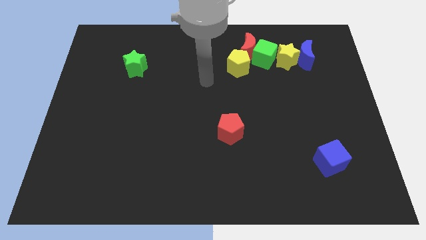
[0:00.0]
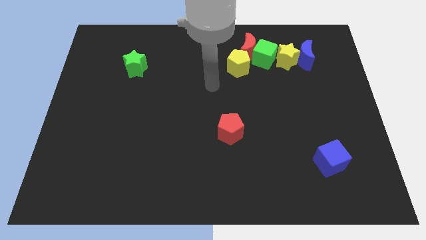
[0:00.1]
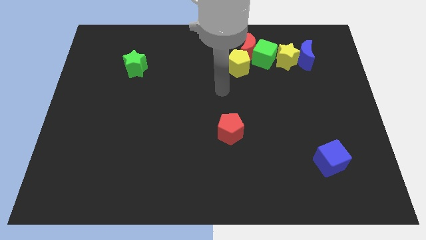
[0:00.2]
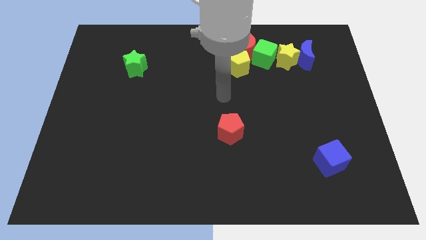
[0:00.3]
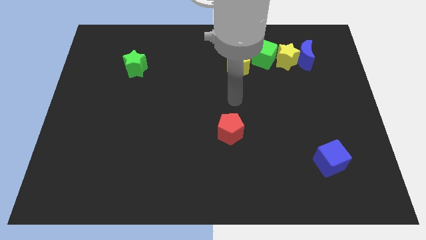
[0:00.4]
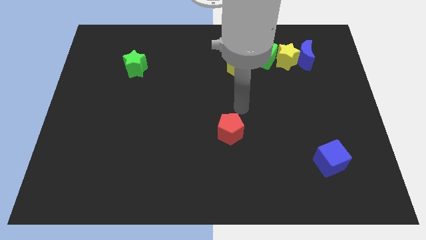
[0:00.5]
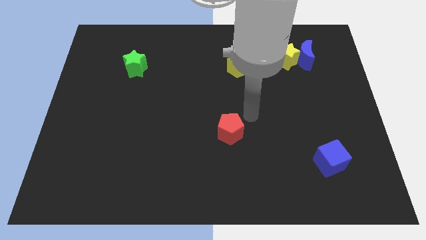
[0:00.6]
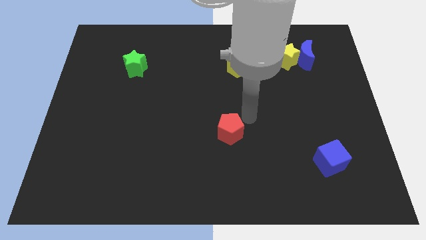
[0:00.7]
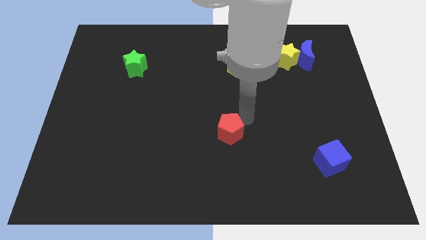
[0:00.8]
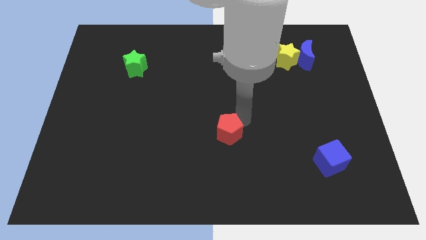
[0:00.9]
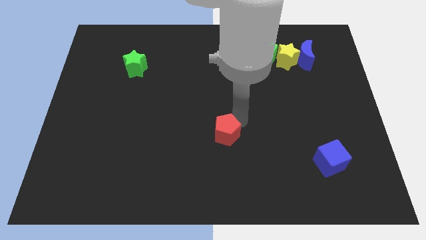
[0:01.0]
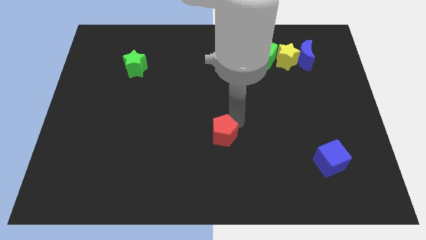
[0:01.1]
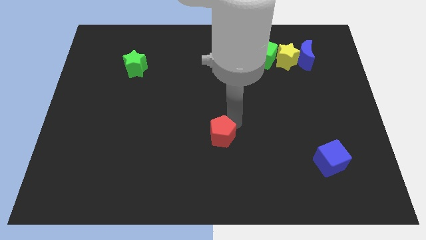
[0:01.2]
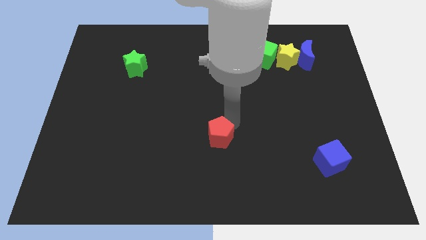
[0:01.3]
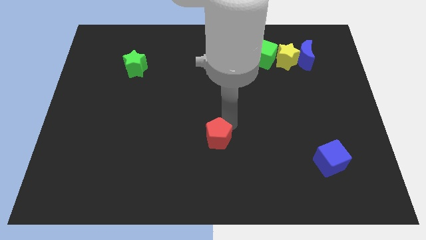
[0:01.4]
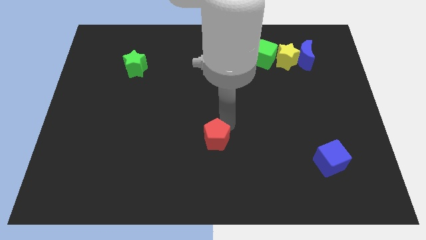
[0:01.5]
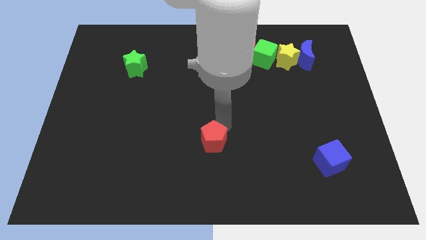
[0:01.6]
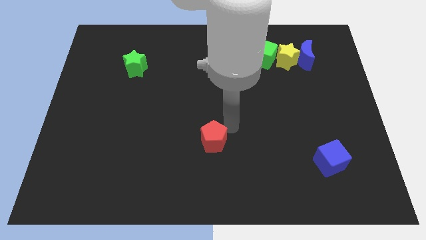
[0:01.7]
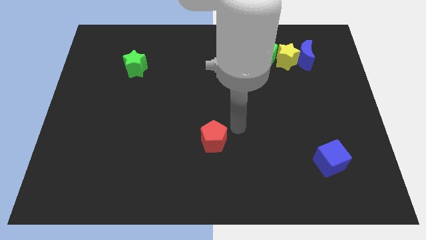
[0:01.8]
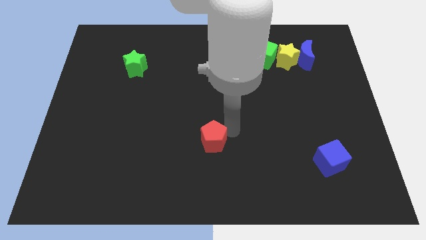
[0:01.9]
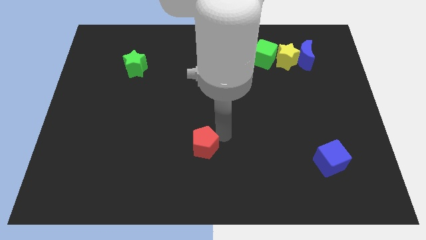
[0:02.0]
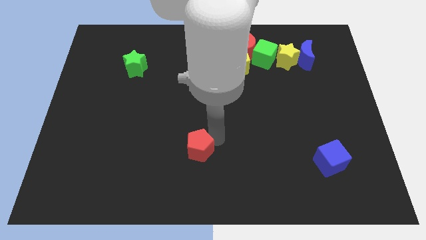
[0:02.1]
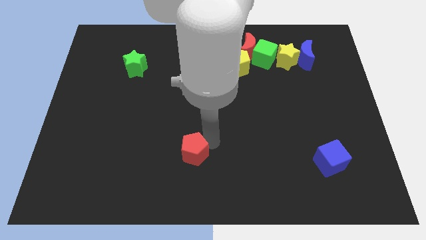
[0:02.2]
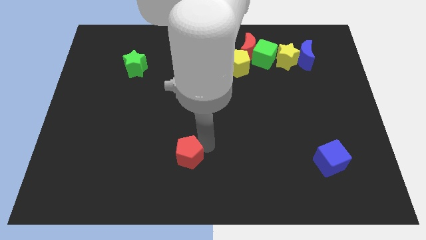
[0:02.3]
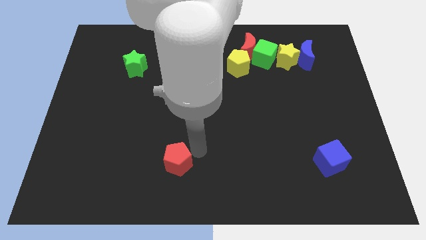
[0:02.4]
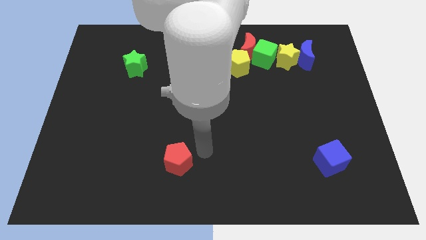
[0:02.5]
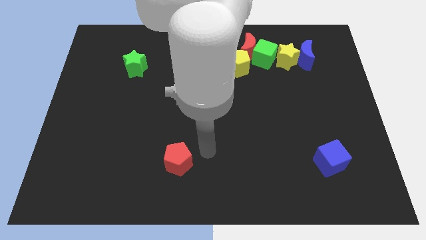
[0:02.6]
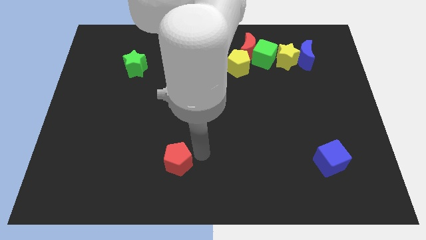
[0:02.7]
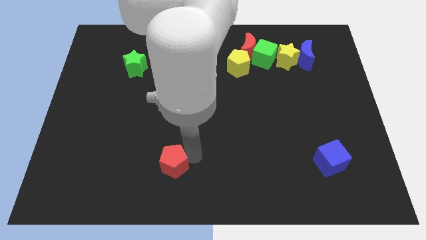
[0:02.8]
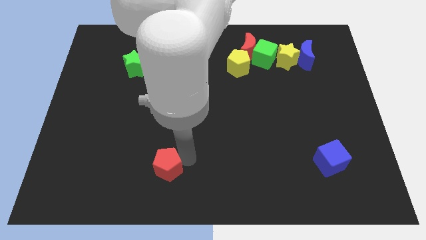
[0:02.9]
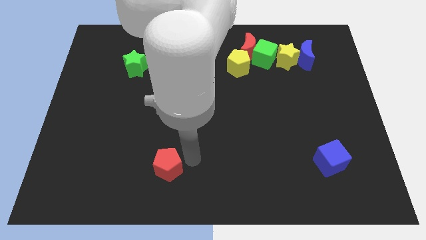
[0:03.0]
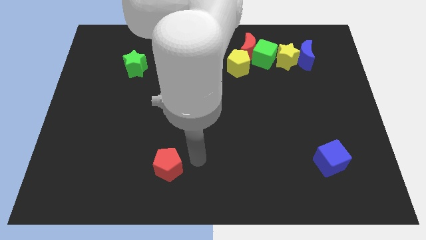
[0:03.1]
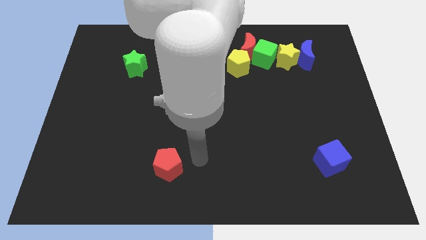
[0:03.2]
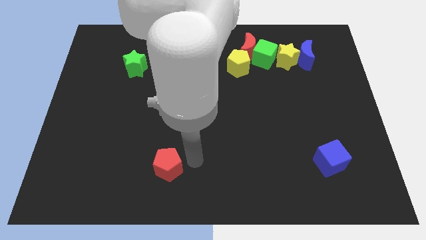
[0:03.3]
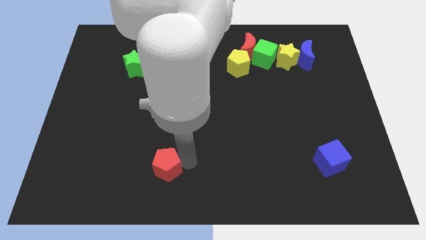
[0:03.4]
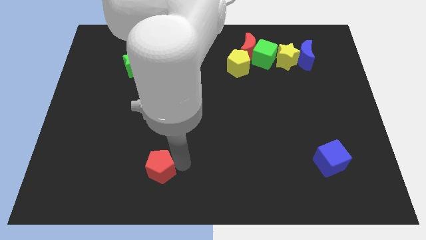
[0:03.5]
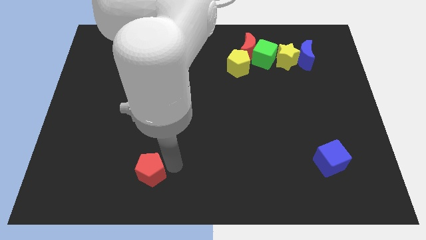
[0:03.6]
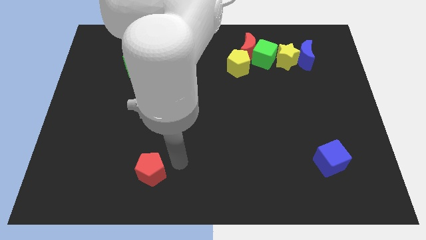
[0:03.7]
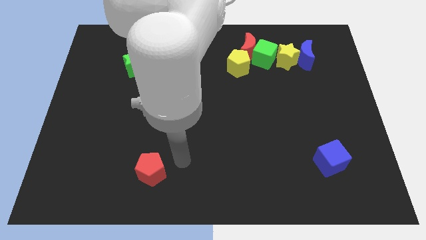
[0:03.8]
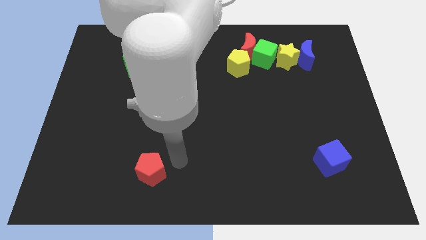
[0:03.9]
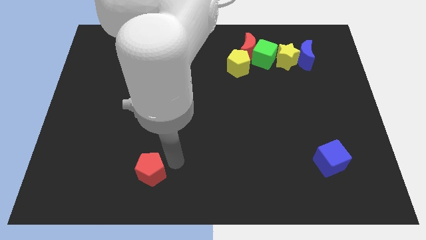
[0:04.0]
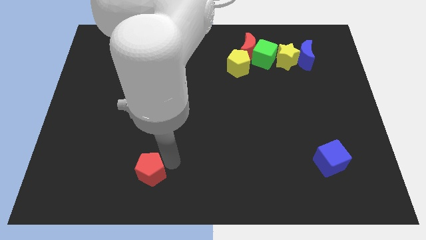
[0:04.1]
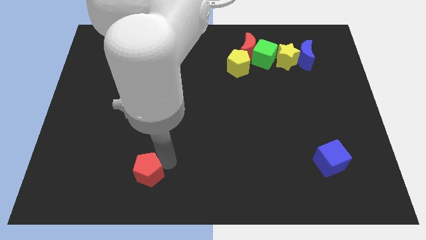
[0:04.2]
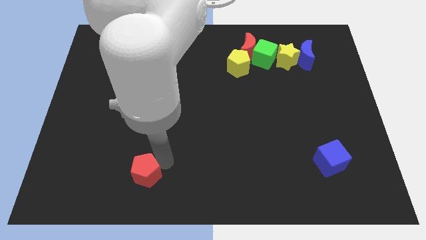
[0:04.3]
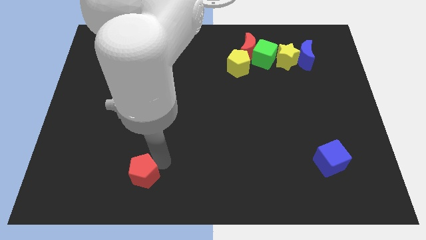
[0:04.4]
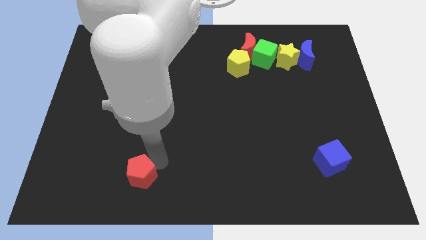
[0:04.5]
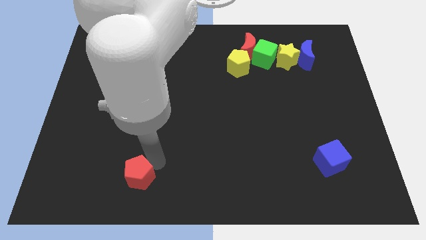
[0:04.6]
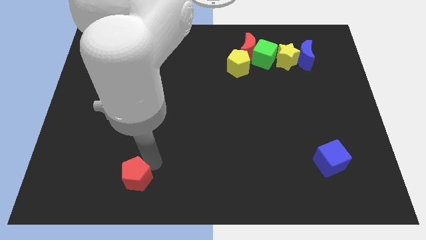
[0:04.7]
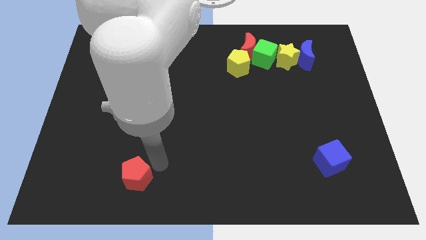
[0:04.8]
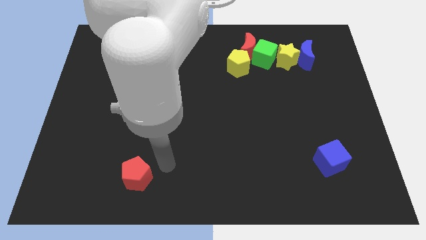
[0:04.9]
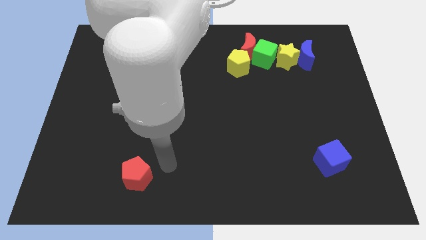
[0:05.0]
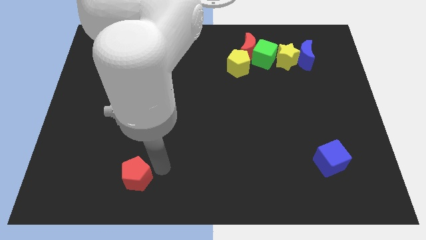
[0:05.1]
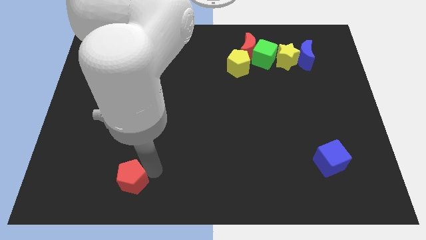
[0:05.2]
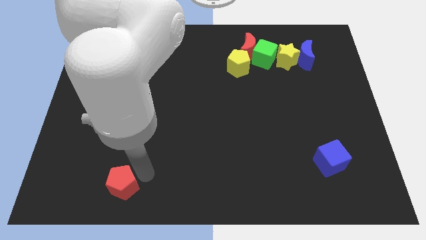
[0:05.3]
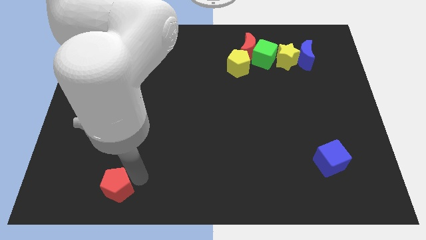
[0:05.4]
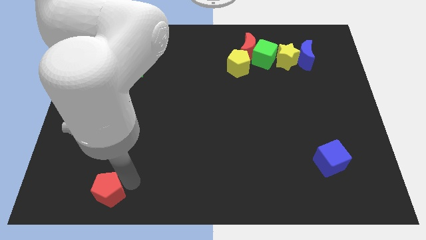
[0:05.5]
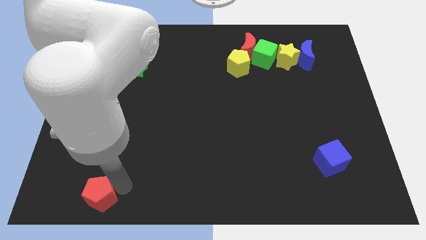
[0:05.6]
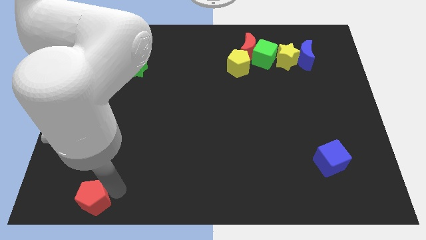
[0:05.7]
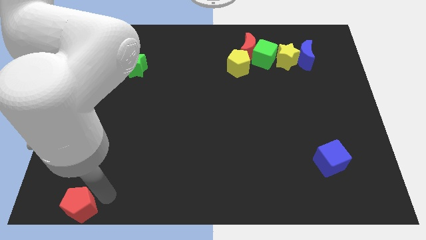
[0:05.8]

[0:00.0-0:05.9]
move the red pentagon to the bottom left corner

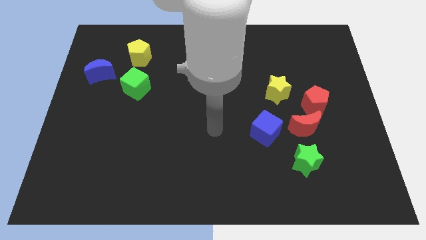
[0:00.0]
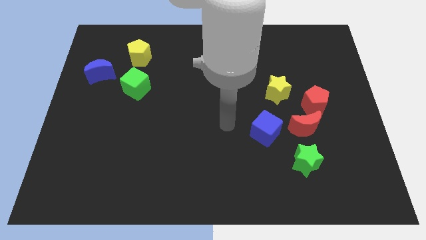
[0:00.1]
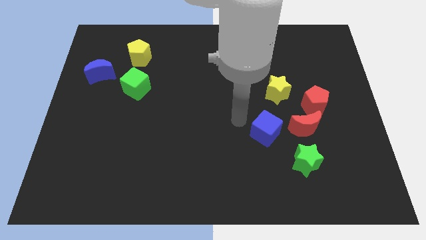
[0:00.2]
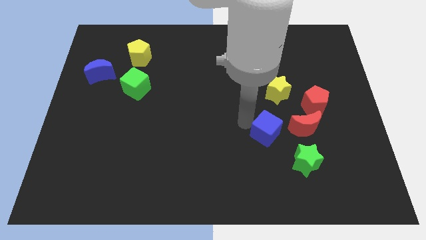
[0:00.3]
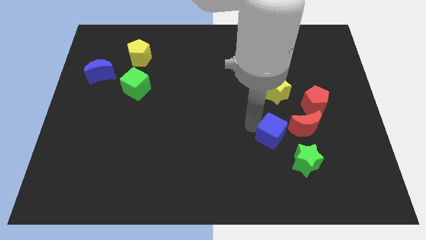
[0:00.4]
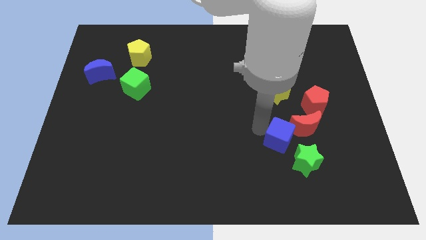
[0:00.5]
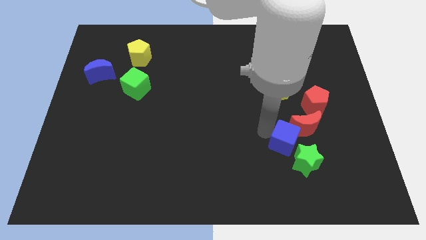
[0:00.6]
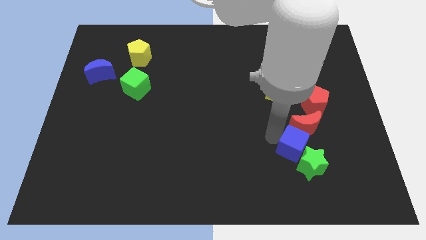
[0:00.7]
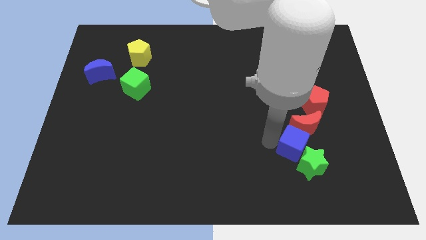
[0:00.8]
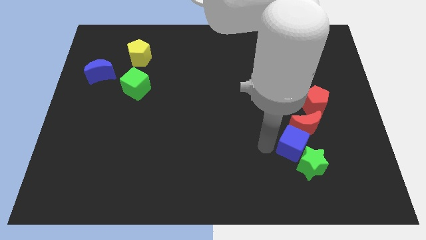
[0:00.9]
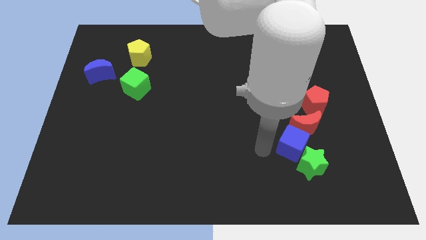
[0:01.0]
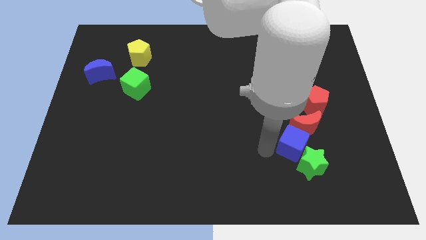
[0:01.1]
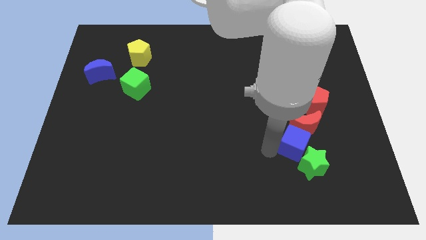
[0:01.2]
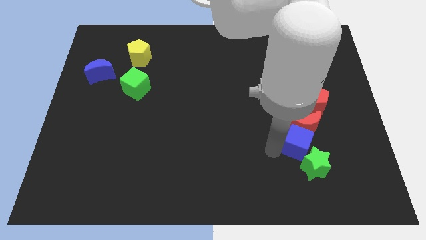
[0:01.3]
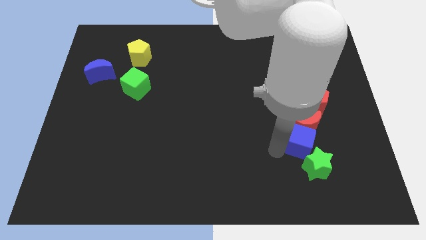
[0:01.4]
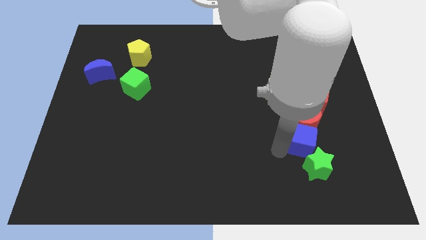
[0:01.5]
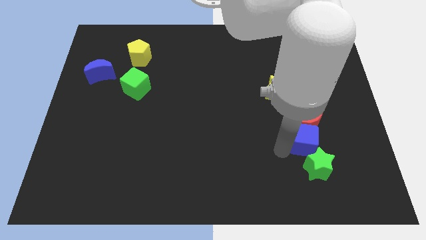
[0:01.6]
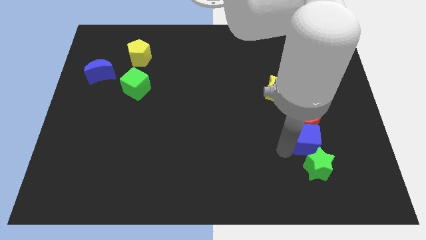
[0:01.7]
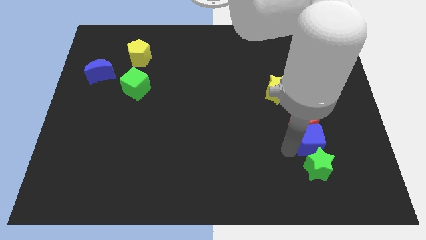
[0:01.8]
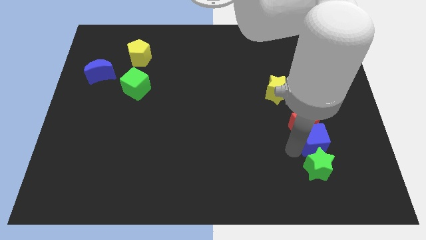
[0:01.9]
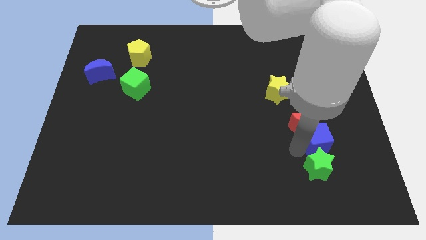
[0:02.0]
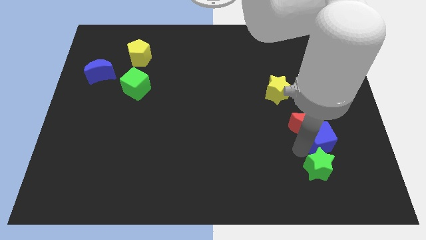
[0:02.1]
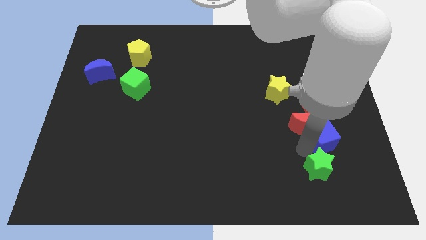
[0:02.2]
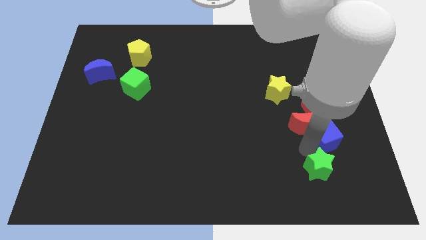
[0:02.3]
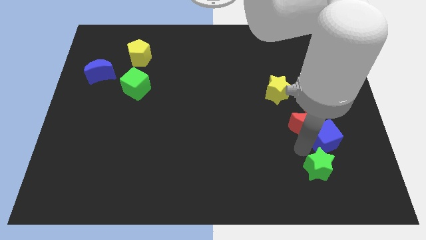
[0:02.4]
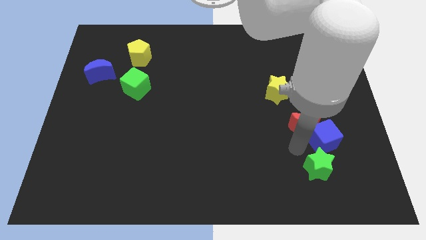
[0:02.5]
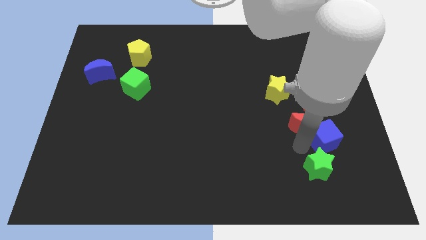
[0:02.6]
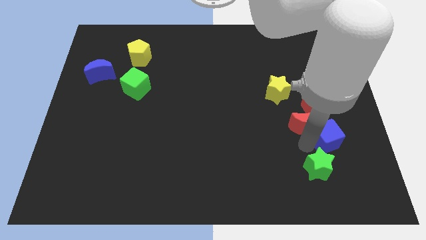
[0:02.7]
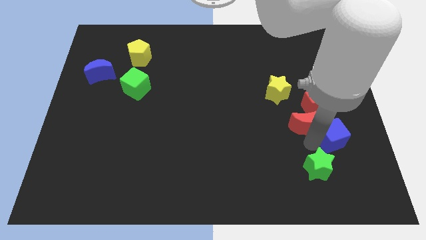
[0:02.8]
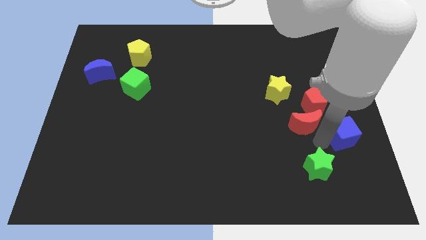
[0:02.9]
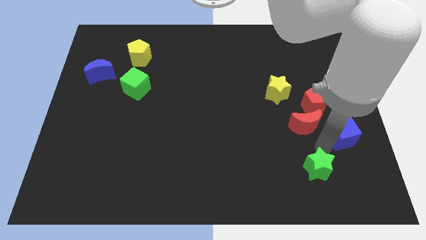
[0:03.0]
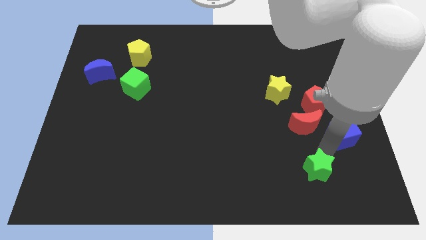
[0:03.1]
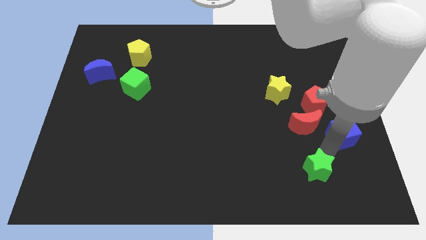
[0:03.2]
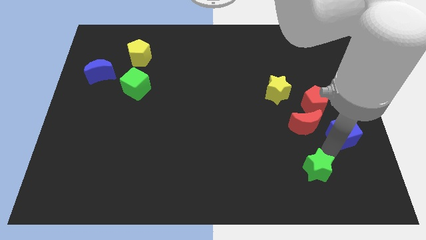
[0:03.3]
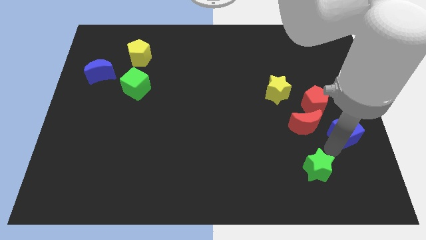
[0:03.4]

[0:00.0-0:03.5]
move the blue cube to the center right
